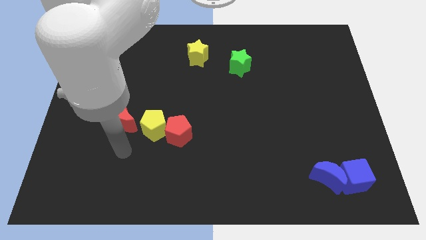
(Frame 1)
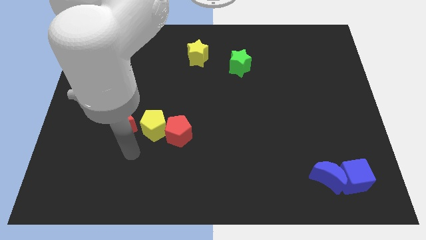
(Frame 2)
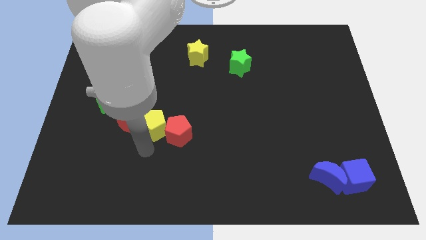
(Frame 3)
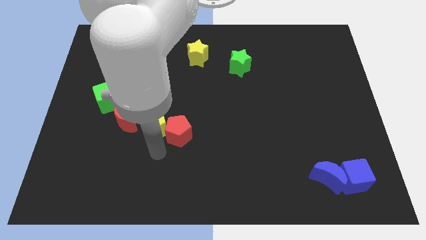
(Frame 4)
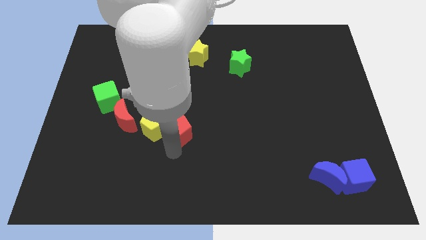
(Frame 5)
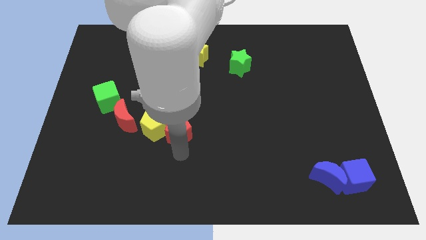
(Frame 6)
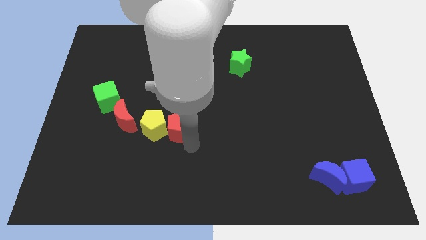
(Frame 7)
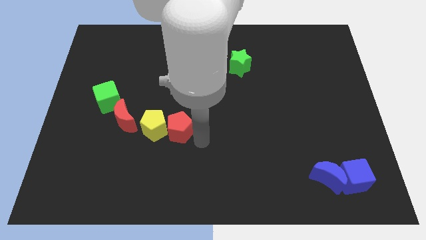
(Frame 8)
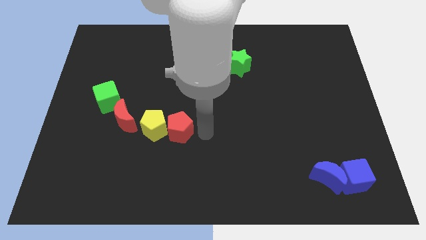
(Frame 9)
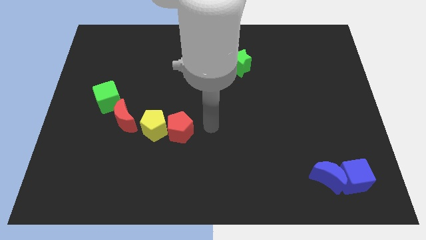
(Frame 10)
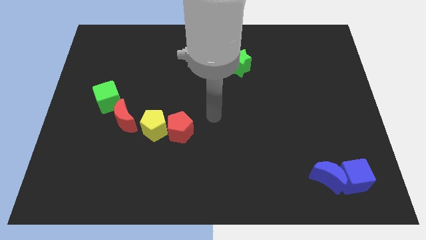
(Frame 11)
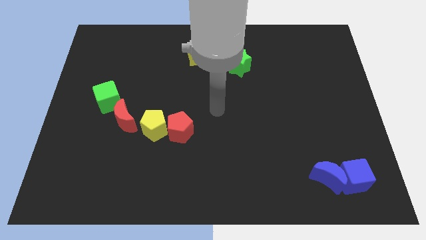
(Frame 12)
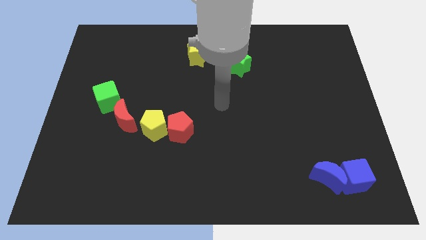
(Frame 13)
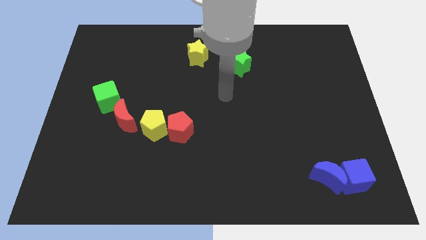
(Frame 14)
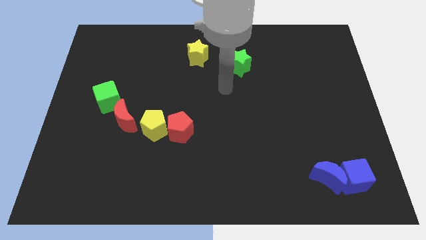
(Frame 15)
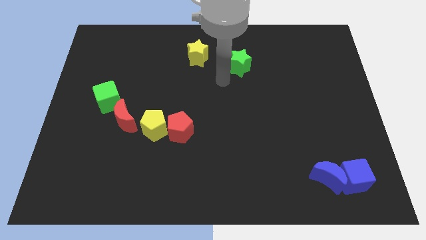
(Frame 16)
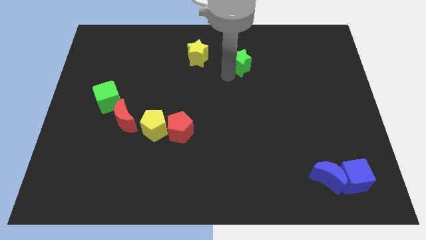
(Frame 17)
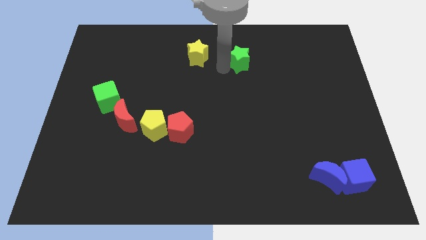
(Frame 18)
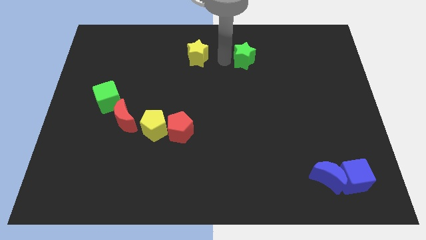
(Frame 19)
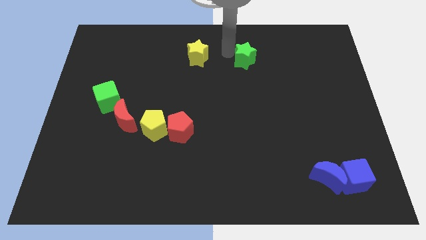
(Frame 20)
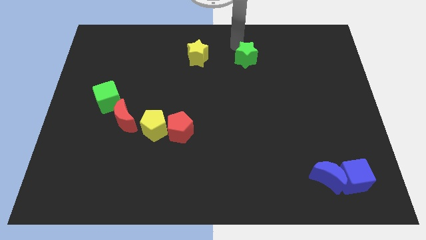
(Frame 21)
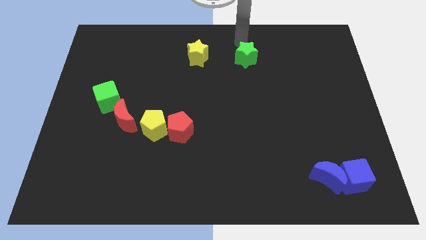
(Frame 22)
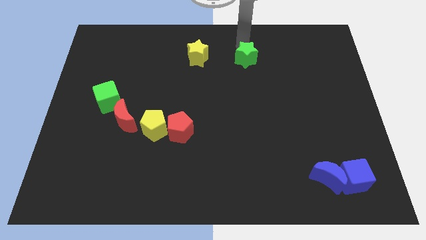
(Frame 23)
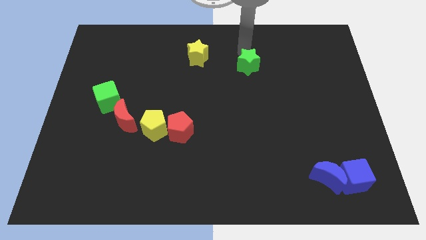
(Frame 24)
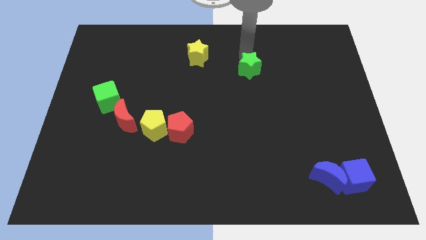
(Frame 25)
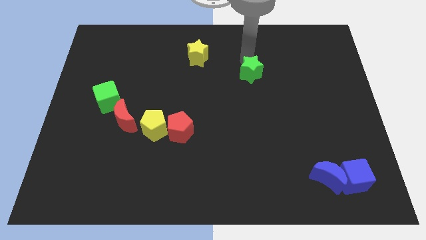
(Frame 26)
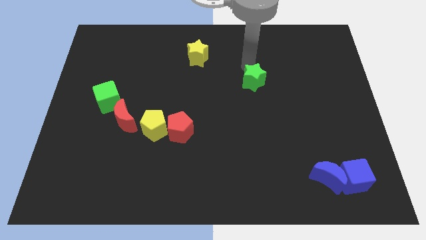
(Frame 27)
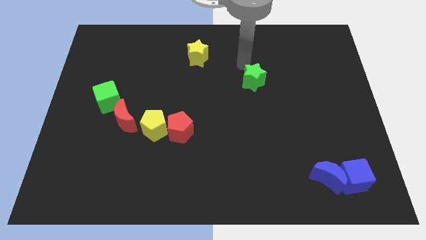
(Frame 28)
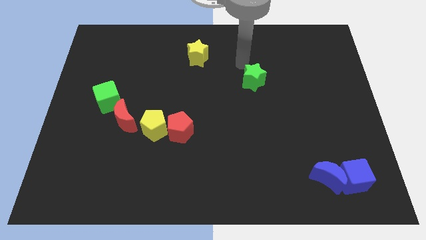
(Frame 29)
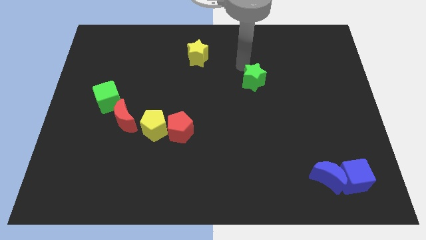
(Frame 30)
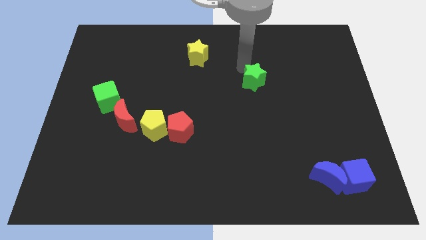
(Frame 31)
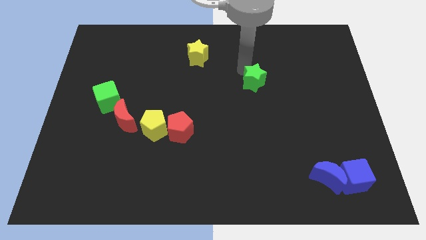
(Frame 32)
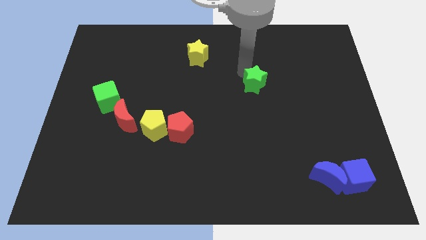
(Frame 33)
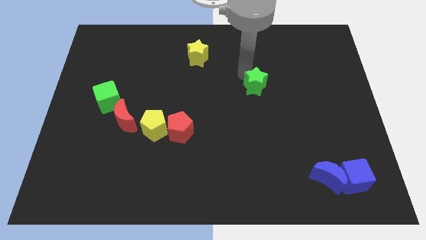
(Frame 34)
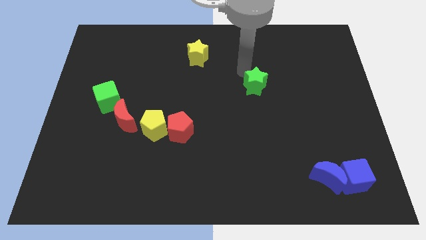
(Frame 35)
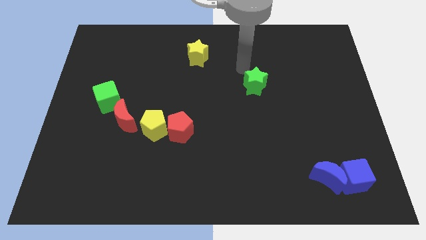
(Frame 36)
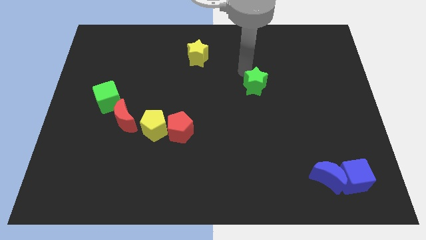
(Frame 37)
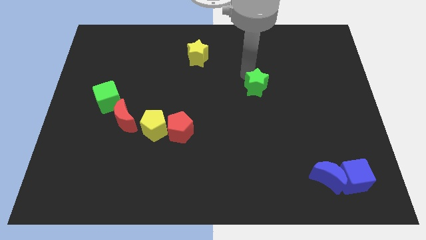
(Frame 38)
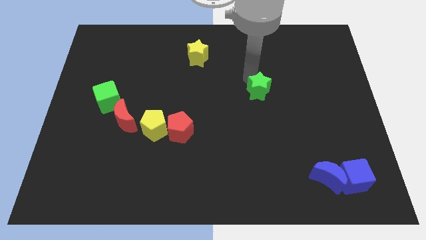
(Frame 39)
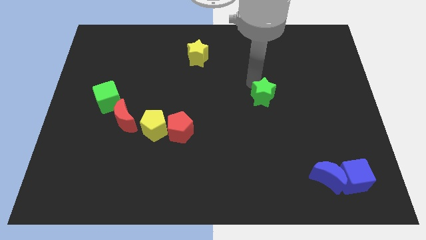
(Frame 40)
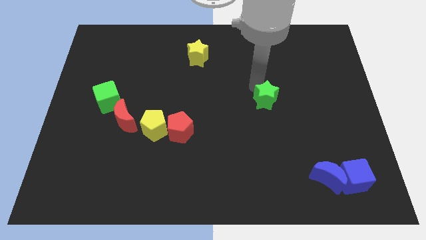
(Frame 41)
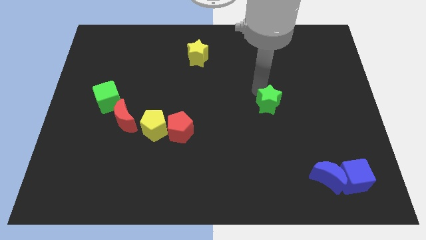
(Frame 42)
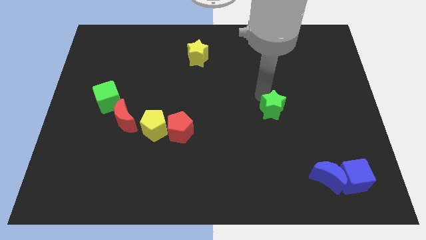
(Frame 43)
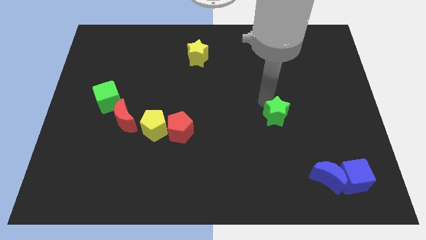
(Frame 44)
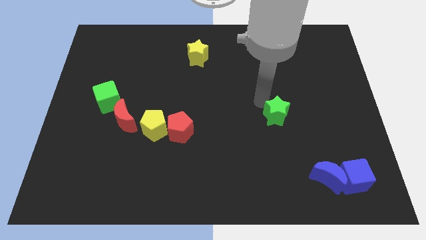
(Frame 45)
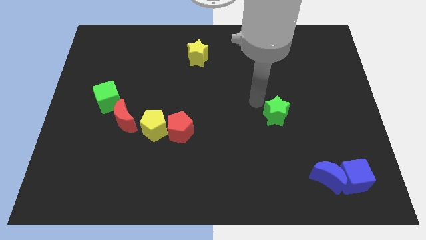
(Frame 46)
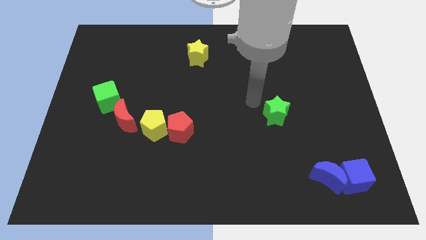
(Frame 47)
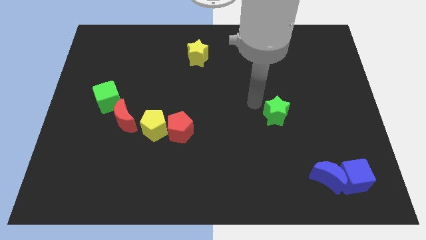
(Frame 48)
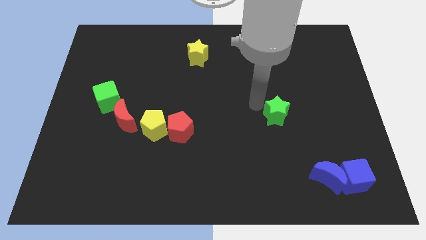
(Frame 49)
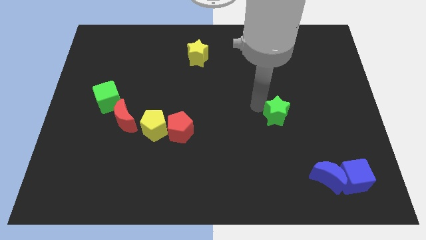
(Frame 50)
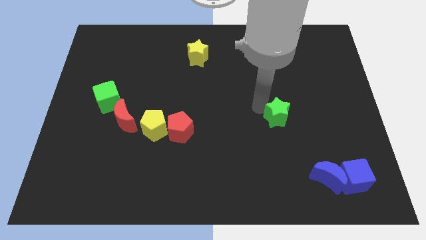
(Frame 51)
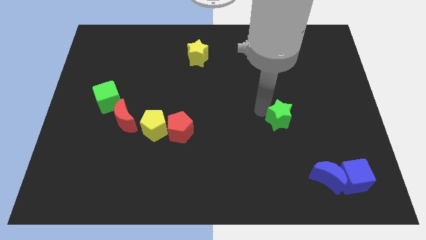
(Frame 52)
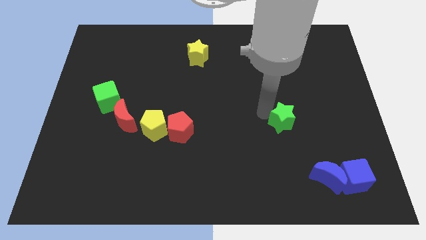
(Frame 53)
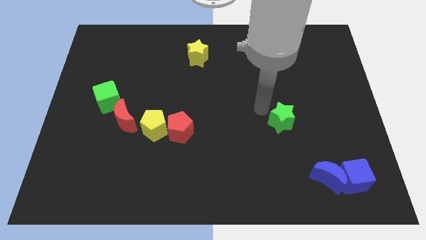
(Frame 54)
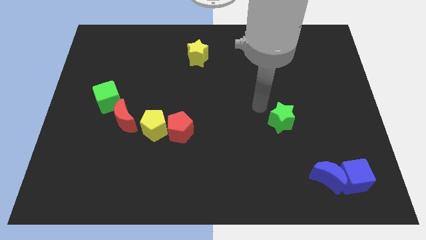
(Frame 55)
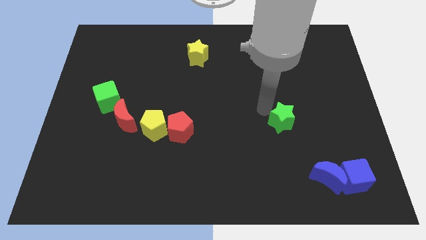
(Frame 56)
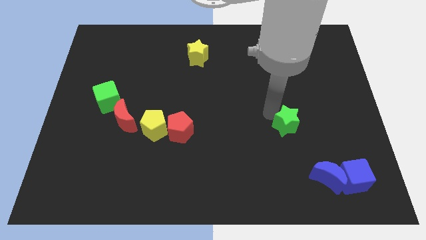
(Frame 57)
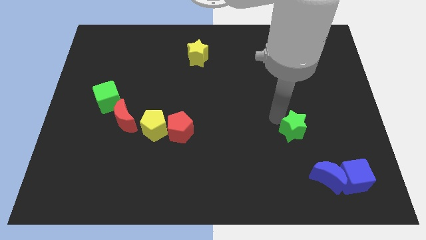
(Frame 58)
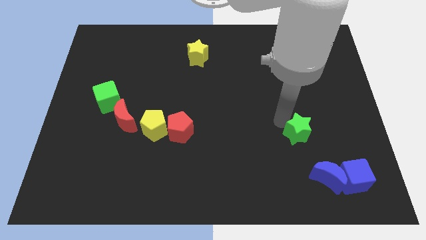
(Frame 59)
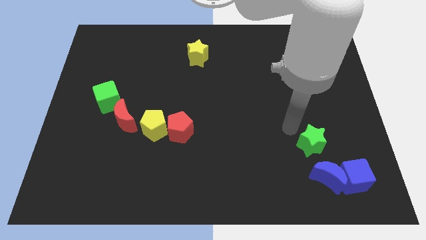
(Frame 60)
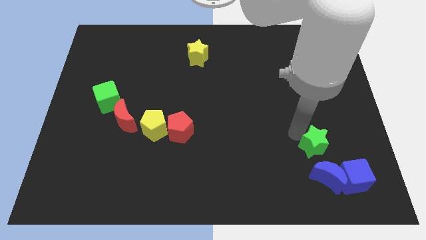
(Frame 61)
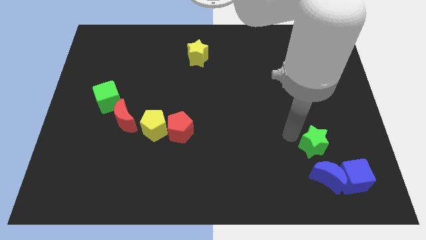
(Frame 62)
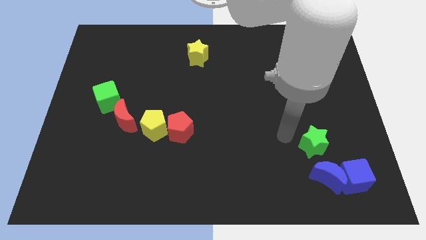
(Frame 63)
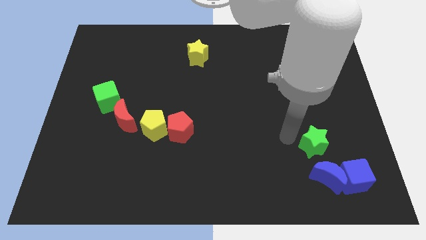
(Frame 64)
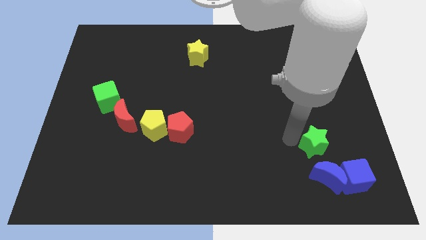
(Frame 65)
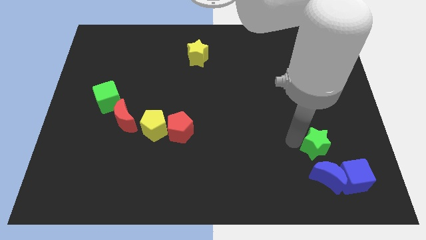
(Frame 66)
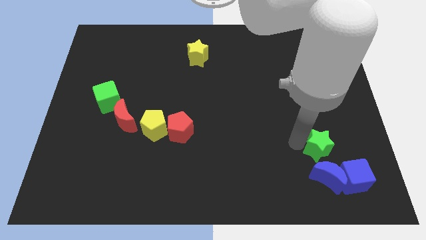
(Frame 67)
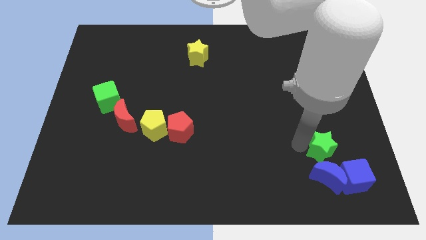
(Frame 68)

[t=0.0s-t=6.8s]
move the green star diagonally up and to the right of the blue moon

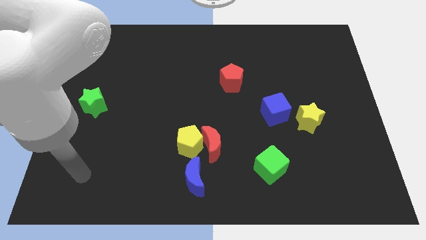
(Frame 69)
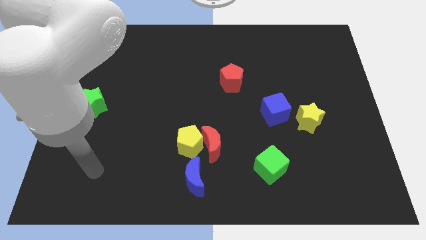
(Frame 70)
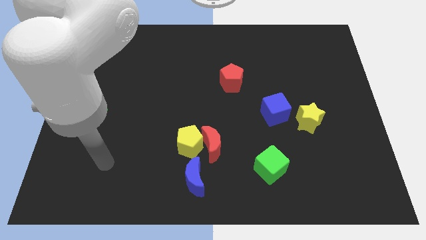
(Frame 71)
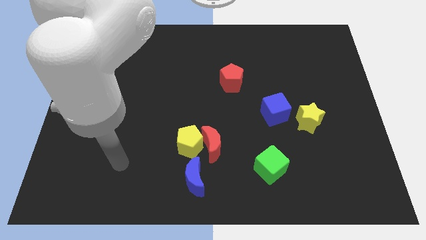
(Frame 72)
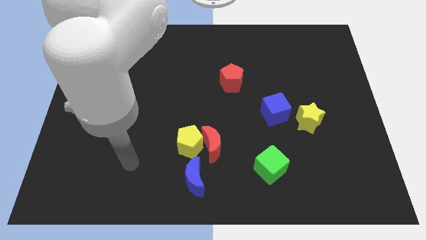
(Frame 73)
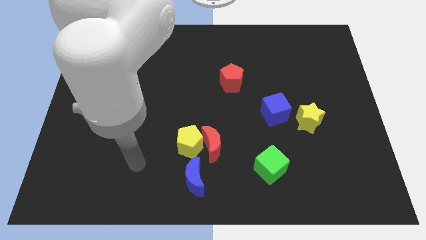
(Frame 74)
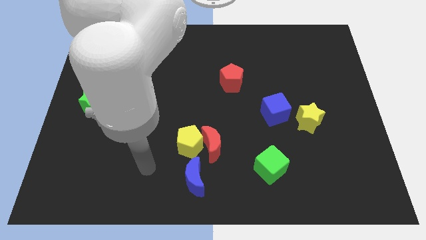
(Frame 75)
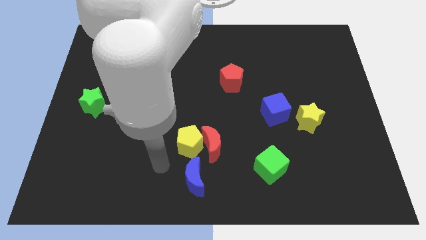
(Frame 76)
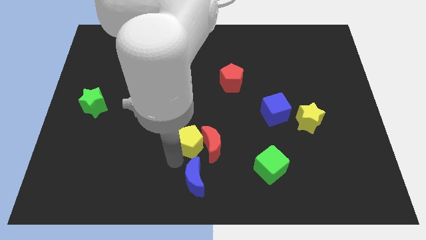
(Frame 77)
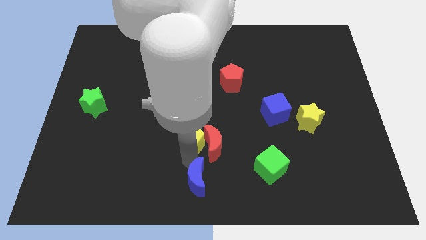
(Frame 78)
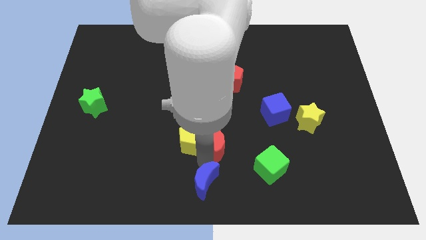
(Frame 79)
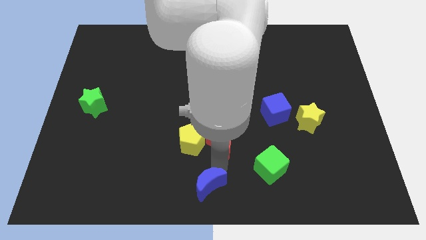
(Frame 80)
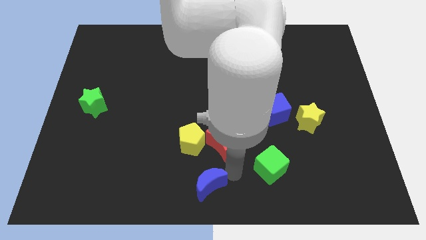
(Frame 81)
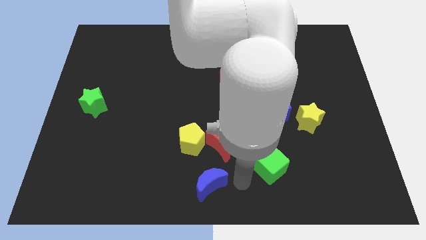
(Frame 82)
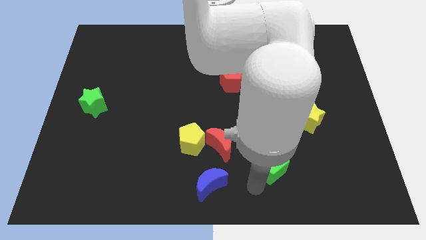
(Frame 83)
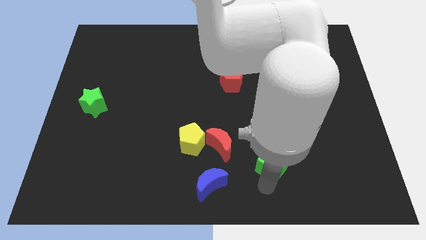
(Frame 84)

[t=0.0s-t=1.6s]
put the green cube to the right of the red moon
